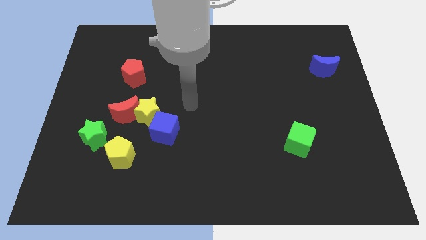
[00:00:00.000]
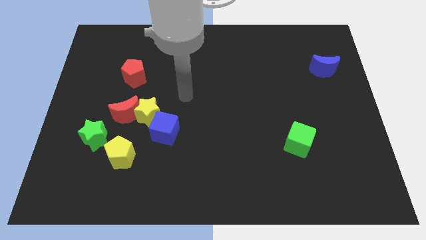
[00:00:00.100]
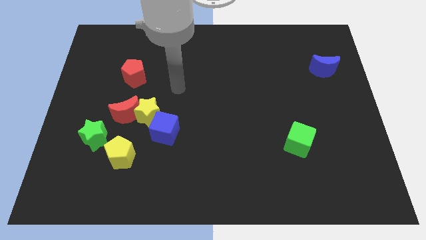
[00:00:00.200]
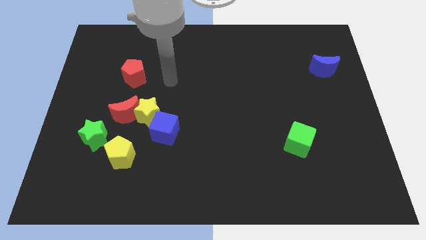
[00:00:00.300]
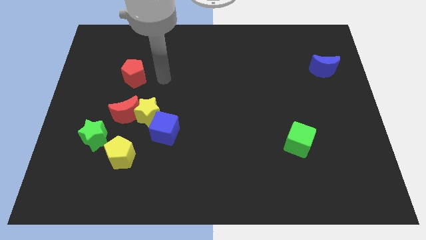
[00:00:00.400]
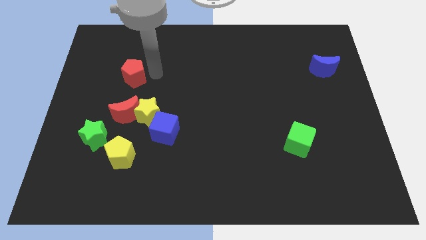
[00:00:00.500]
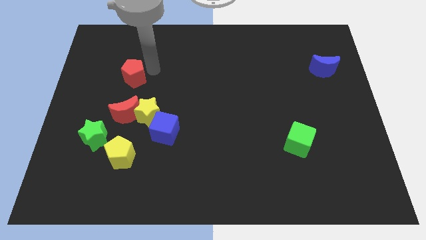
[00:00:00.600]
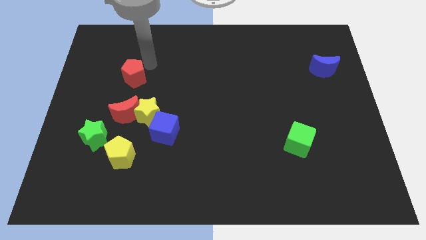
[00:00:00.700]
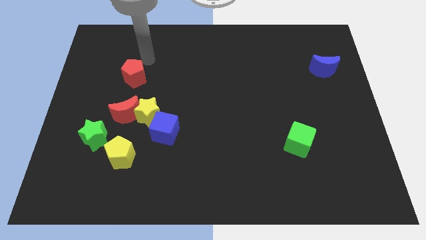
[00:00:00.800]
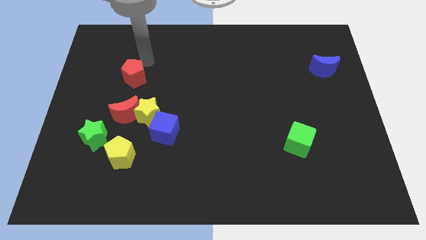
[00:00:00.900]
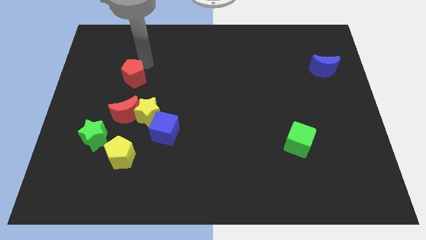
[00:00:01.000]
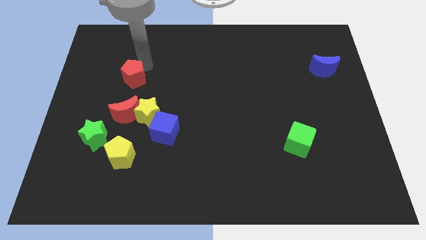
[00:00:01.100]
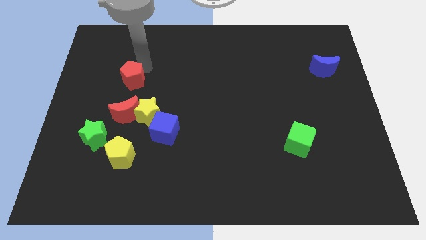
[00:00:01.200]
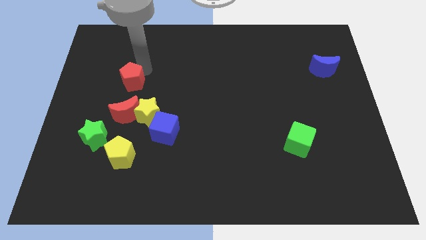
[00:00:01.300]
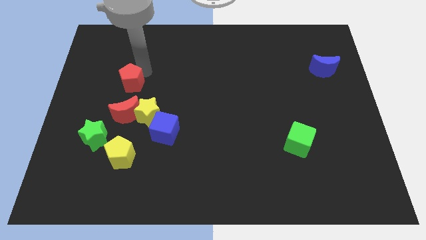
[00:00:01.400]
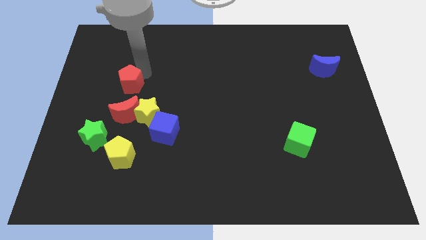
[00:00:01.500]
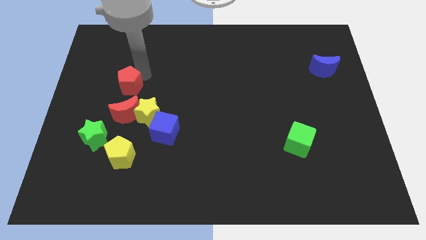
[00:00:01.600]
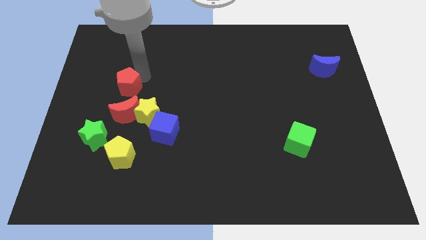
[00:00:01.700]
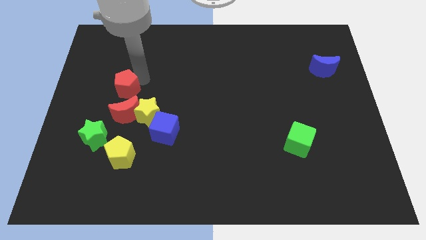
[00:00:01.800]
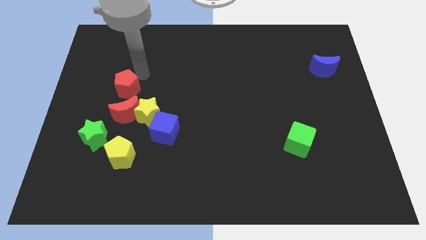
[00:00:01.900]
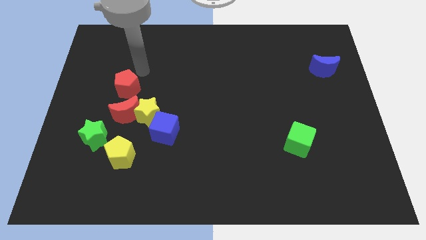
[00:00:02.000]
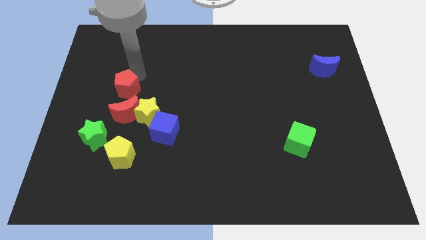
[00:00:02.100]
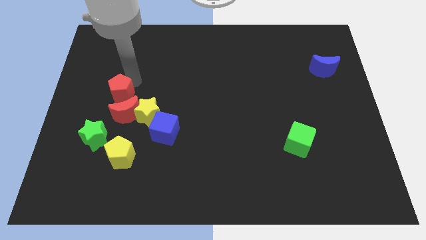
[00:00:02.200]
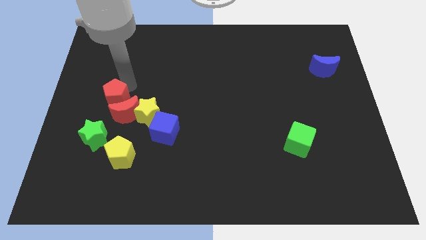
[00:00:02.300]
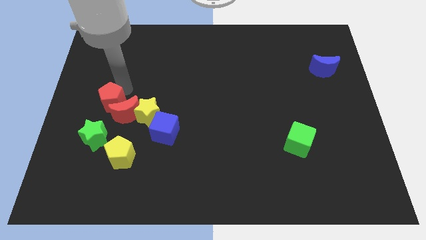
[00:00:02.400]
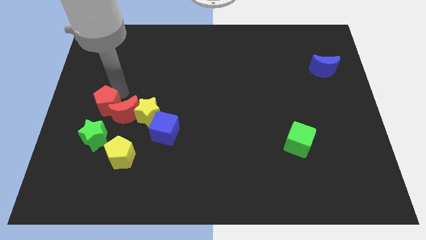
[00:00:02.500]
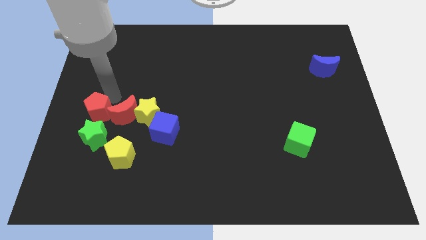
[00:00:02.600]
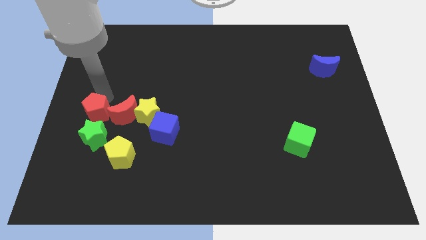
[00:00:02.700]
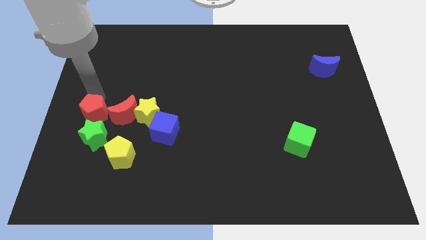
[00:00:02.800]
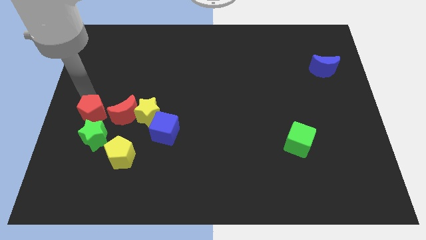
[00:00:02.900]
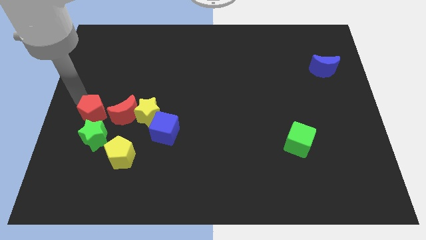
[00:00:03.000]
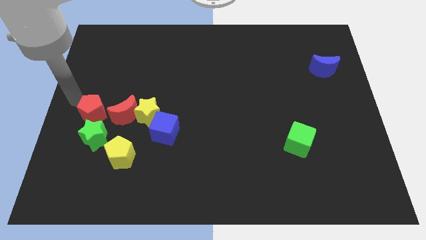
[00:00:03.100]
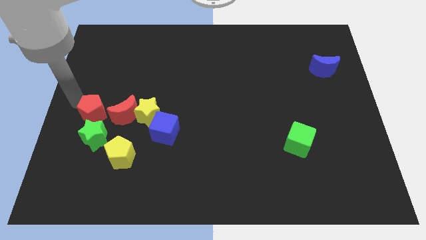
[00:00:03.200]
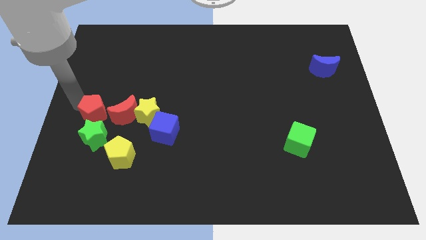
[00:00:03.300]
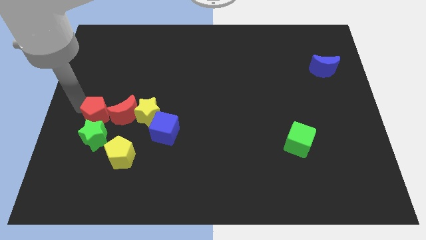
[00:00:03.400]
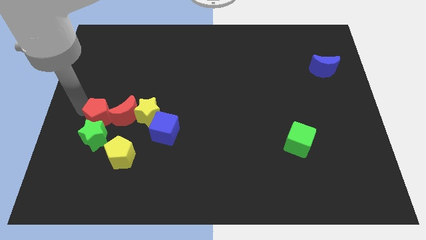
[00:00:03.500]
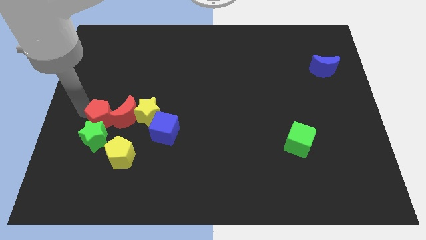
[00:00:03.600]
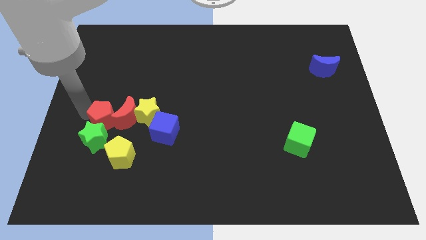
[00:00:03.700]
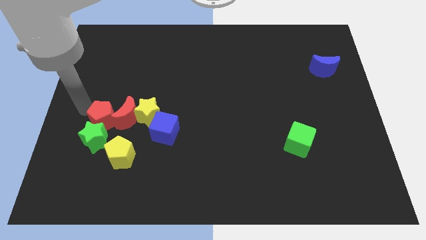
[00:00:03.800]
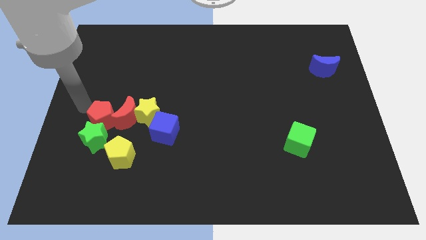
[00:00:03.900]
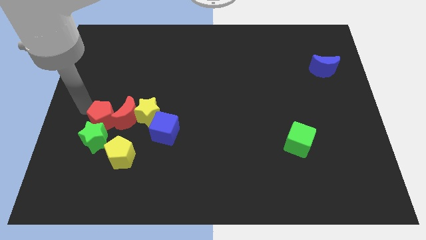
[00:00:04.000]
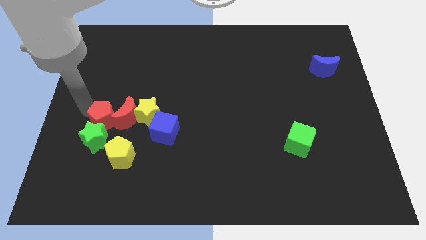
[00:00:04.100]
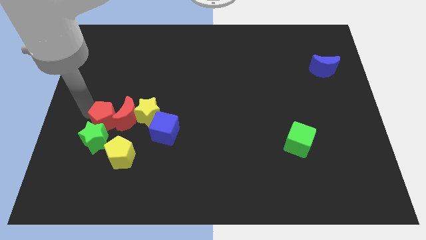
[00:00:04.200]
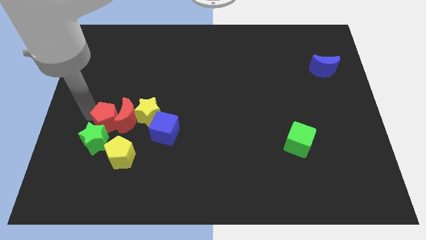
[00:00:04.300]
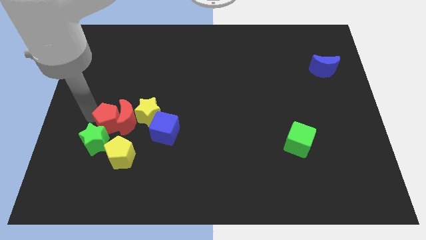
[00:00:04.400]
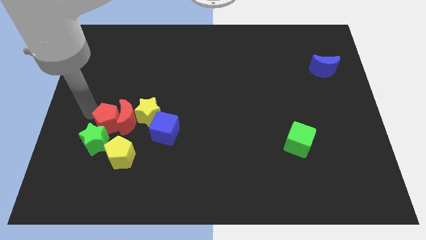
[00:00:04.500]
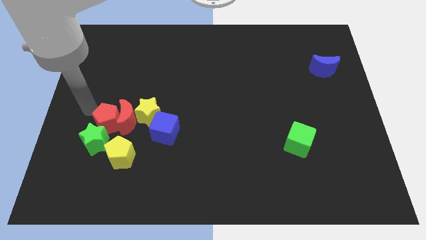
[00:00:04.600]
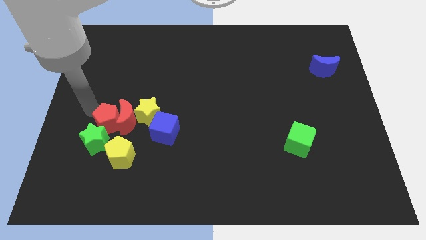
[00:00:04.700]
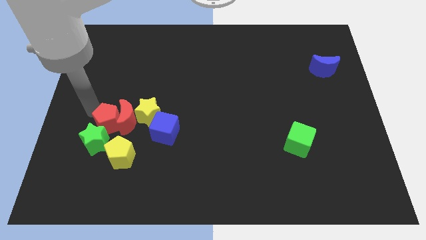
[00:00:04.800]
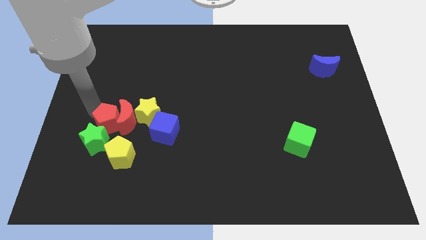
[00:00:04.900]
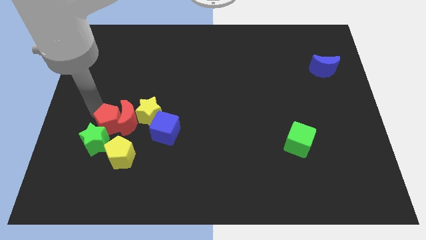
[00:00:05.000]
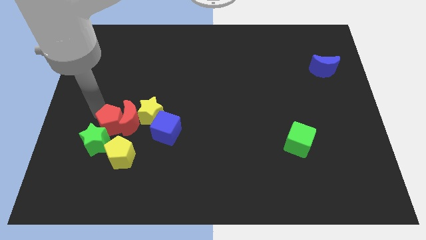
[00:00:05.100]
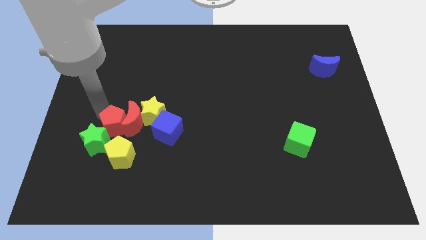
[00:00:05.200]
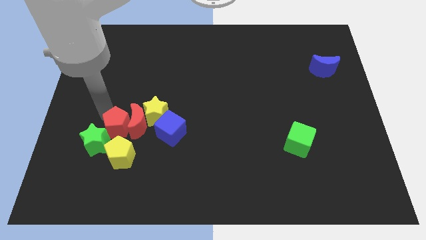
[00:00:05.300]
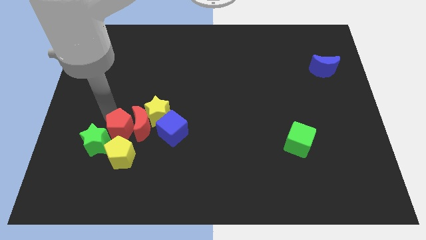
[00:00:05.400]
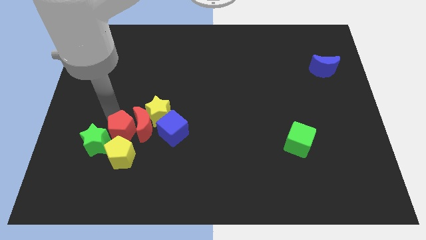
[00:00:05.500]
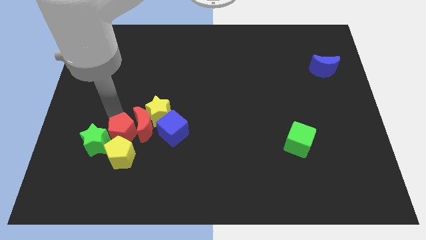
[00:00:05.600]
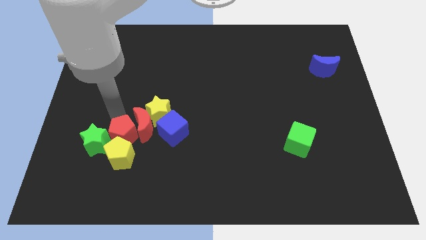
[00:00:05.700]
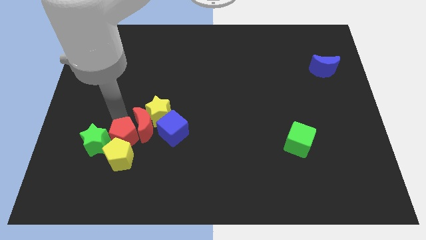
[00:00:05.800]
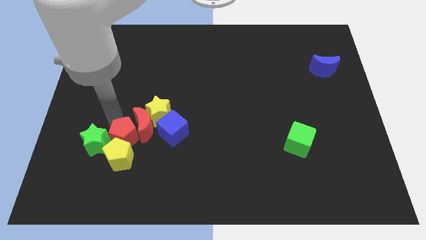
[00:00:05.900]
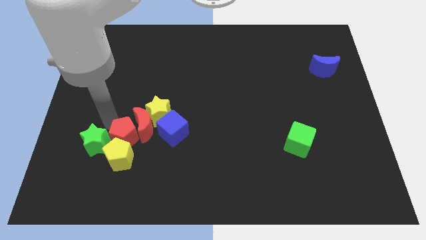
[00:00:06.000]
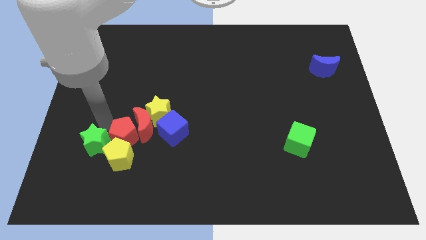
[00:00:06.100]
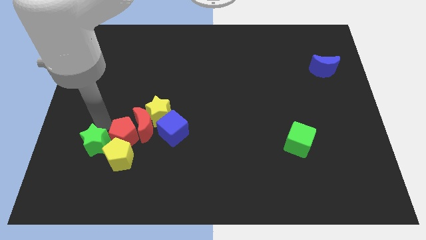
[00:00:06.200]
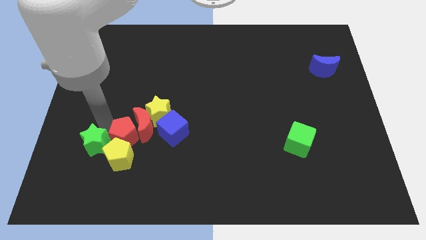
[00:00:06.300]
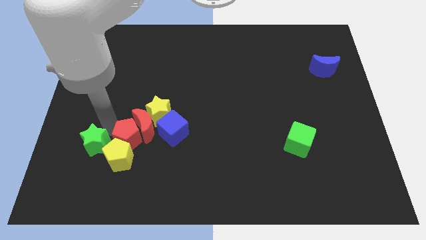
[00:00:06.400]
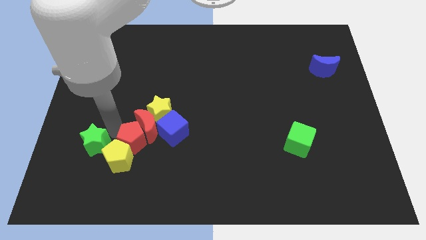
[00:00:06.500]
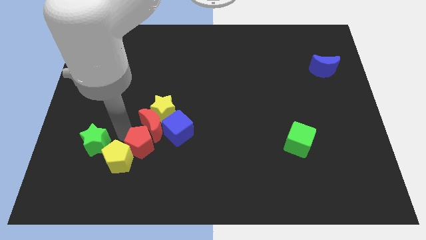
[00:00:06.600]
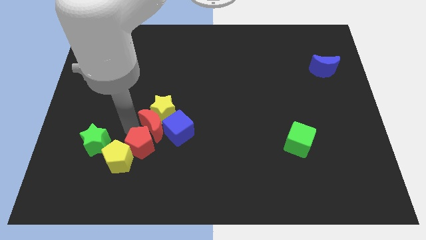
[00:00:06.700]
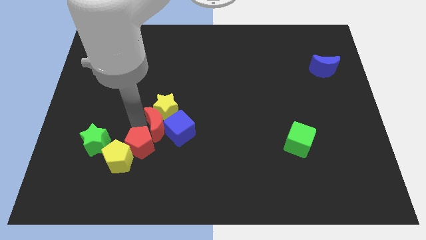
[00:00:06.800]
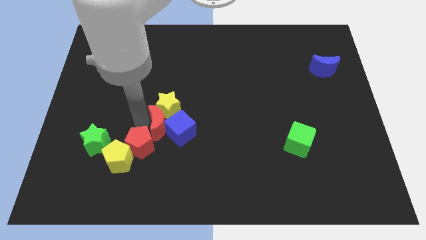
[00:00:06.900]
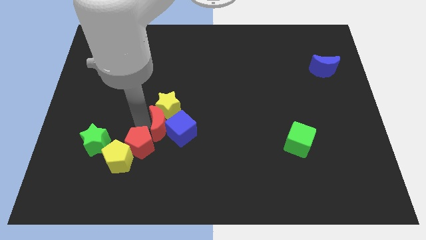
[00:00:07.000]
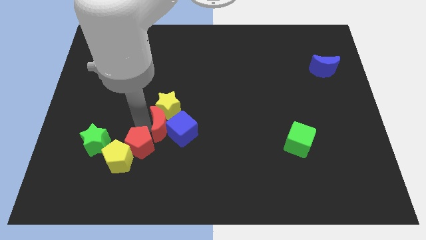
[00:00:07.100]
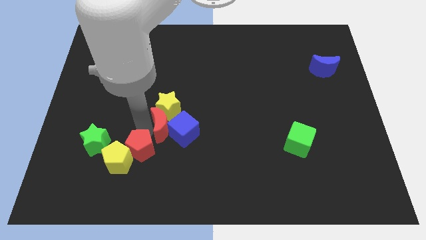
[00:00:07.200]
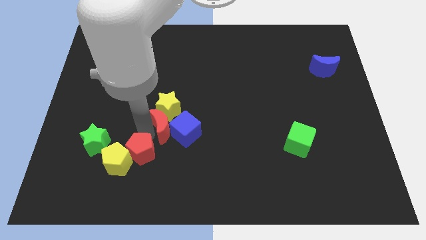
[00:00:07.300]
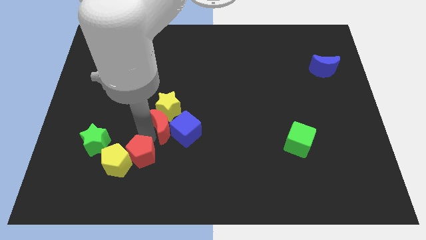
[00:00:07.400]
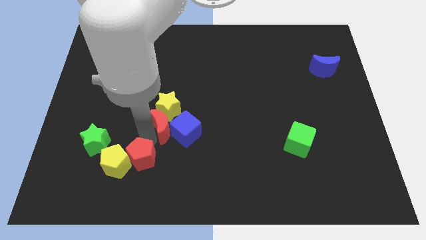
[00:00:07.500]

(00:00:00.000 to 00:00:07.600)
move the red pentagon diagonally down and to the right of the yellow pentagon
